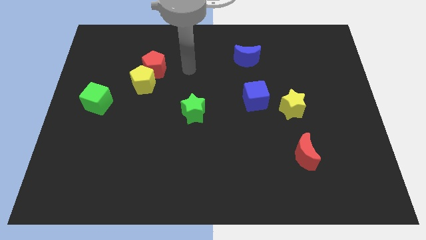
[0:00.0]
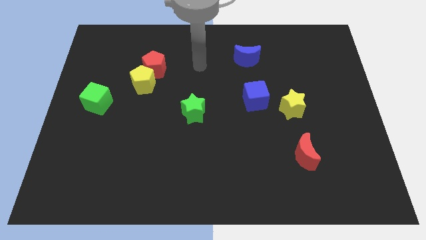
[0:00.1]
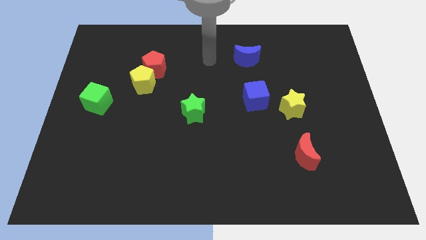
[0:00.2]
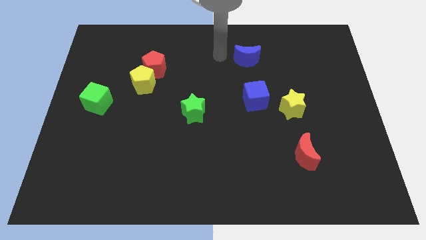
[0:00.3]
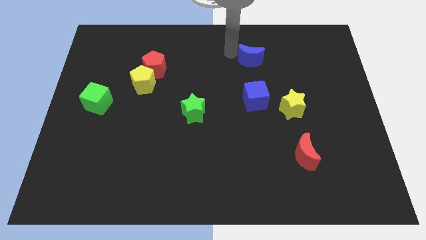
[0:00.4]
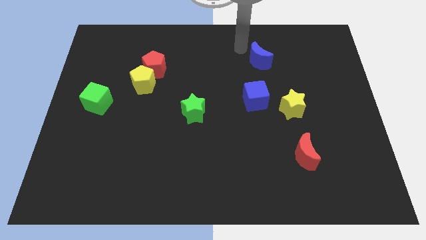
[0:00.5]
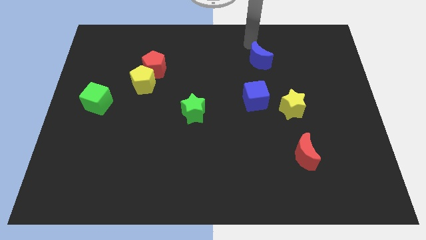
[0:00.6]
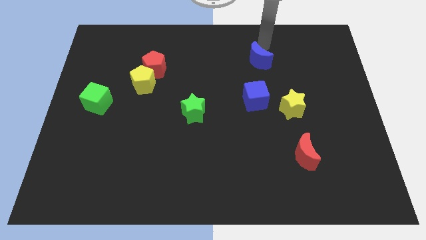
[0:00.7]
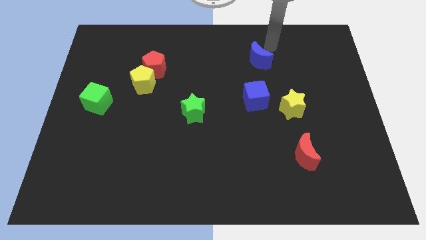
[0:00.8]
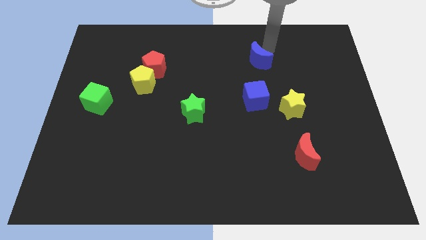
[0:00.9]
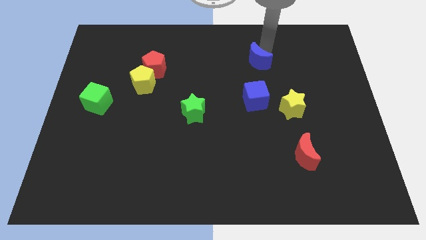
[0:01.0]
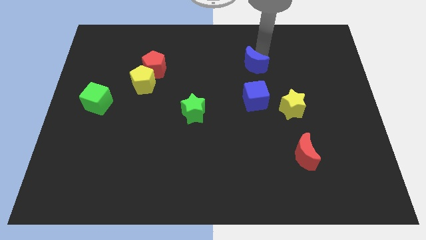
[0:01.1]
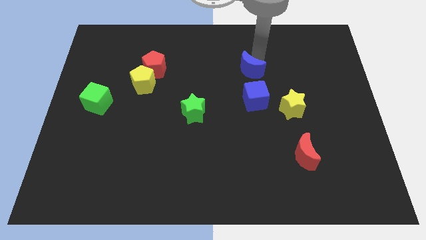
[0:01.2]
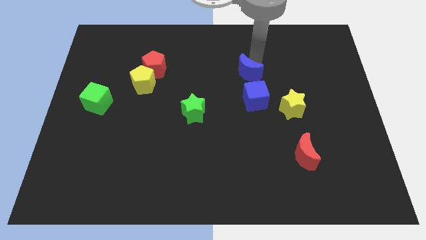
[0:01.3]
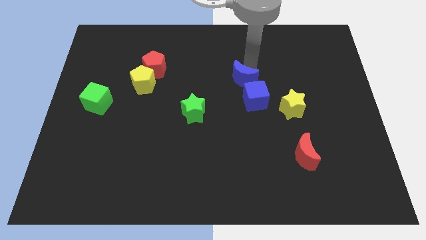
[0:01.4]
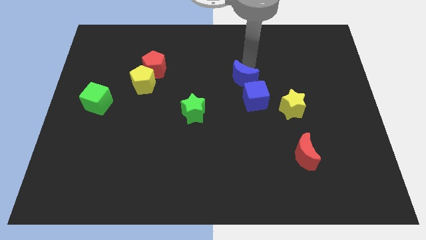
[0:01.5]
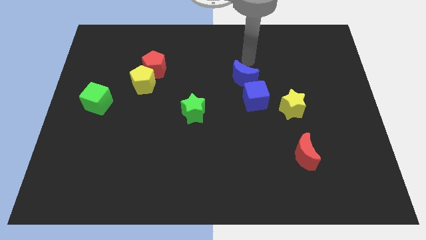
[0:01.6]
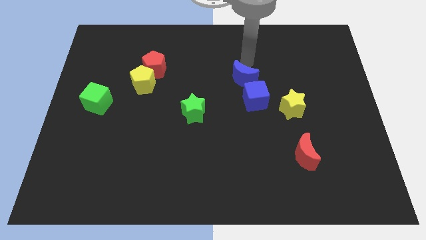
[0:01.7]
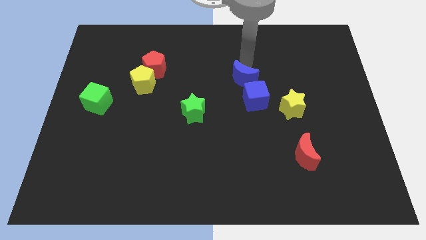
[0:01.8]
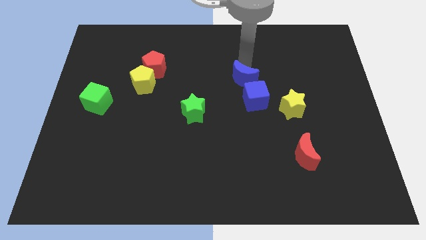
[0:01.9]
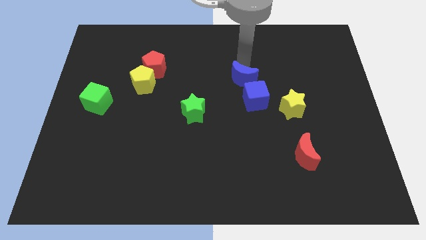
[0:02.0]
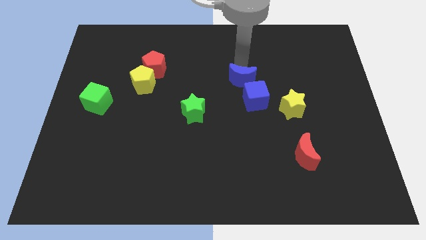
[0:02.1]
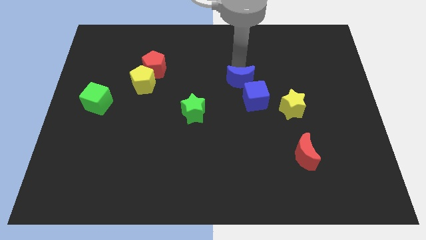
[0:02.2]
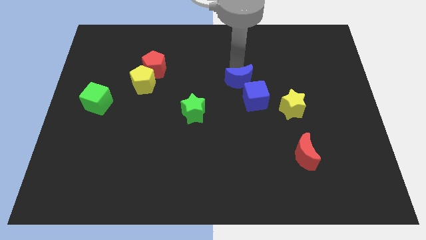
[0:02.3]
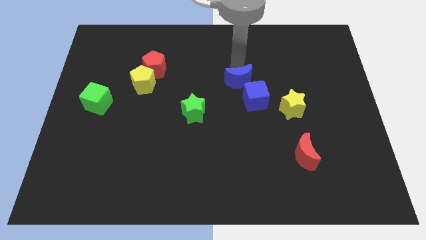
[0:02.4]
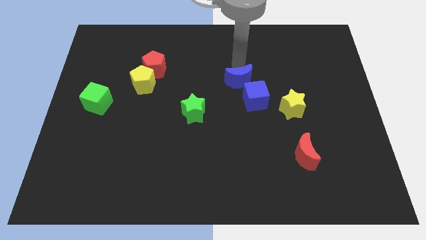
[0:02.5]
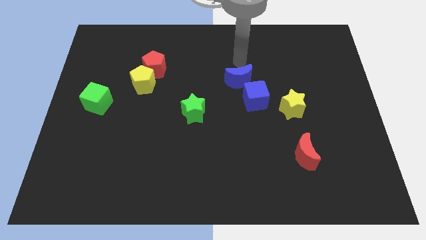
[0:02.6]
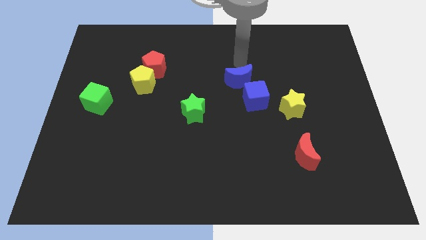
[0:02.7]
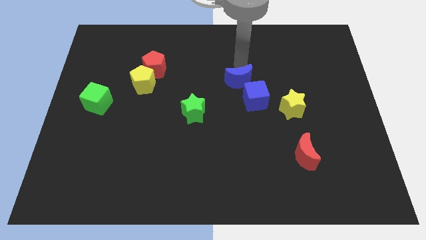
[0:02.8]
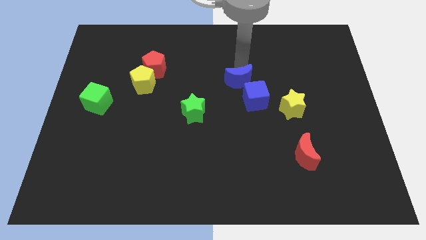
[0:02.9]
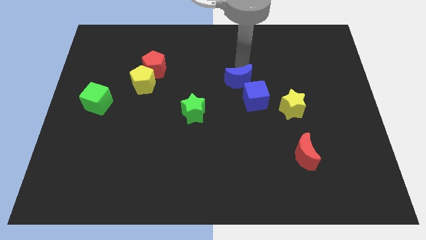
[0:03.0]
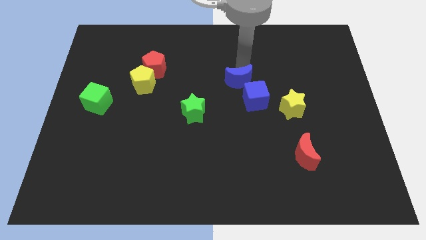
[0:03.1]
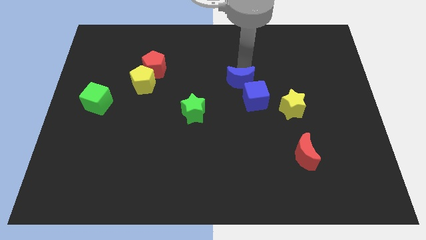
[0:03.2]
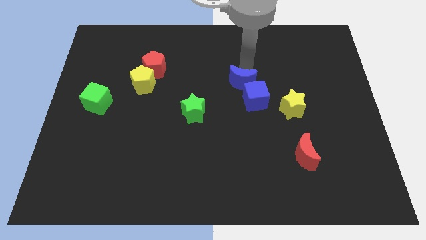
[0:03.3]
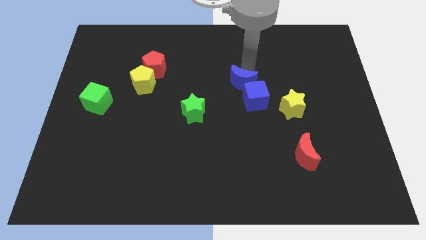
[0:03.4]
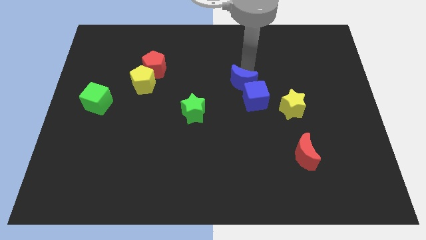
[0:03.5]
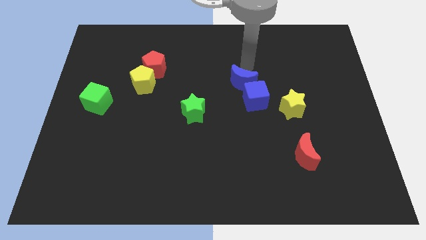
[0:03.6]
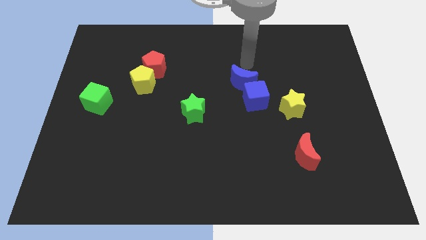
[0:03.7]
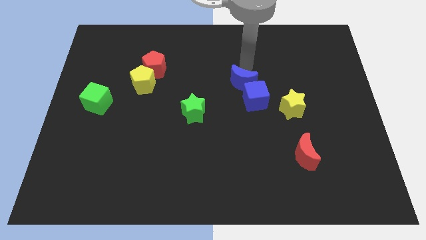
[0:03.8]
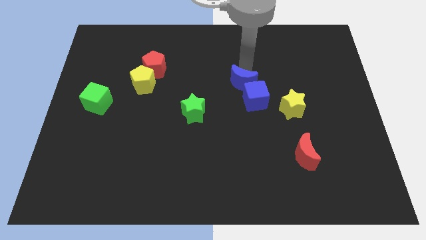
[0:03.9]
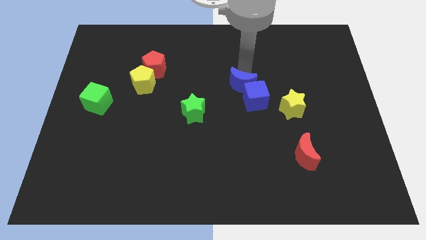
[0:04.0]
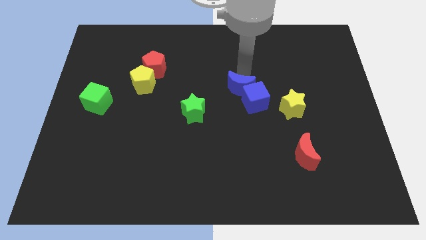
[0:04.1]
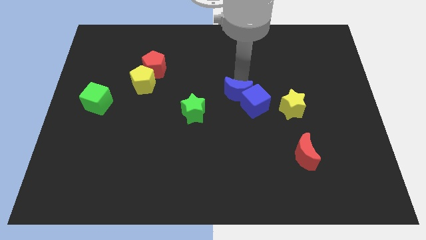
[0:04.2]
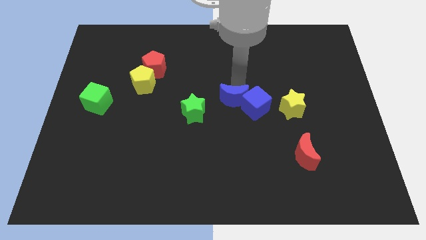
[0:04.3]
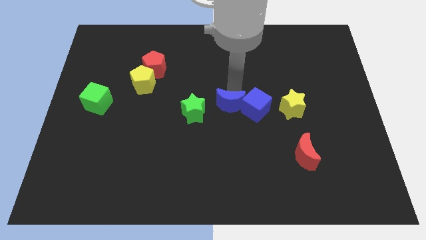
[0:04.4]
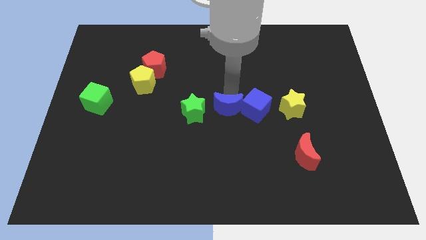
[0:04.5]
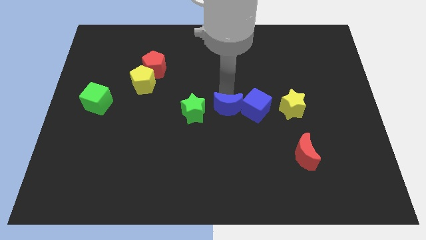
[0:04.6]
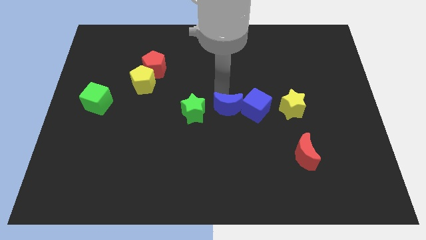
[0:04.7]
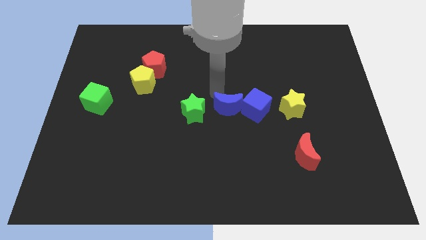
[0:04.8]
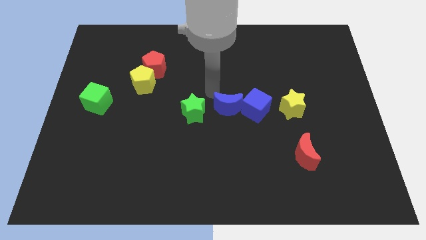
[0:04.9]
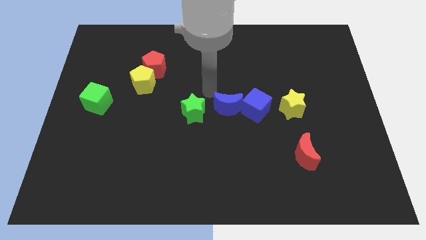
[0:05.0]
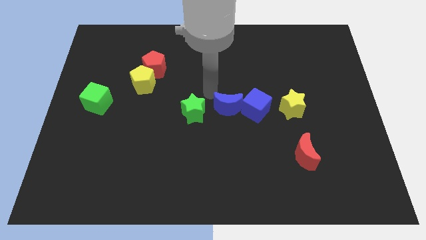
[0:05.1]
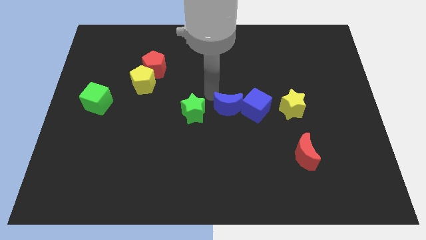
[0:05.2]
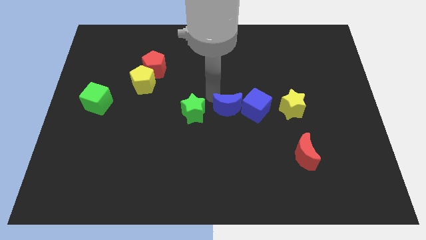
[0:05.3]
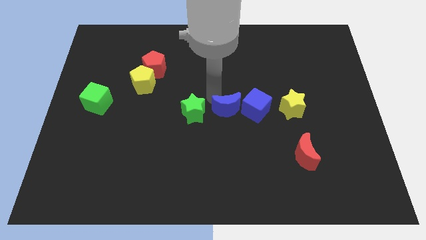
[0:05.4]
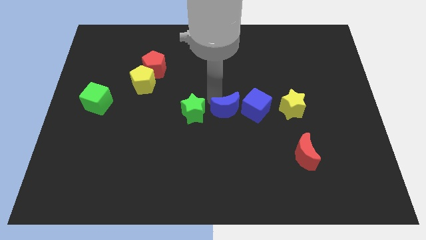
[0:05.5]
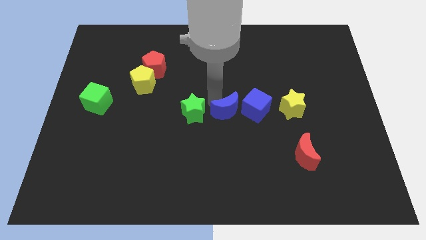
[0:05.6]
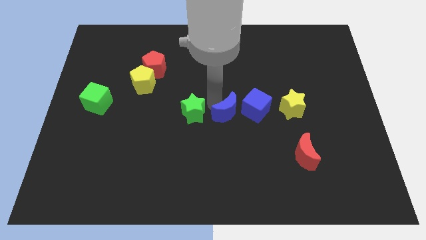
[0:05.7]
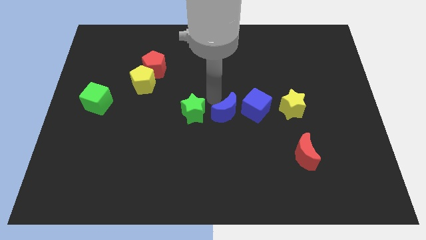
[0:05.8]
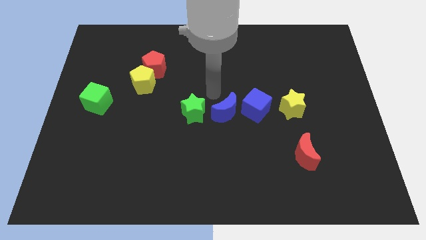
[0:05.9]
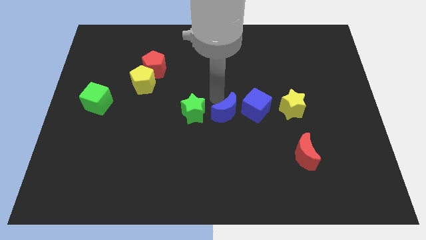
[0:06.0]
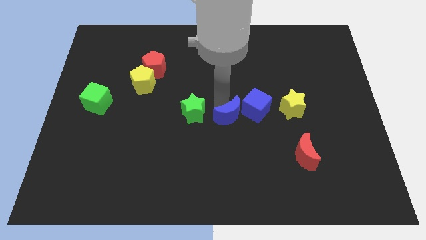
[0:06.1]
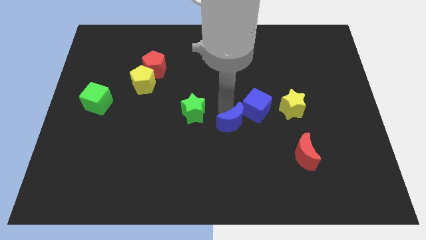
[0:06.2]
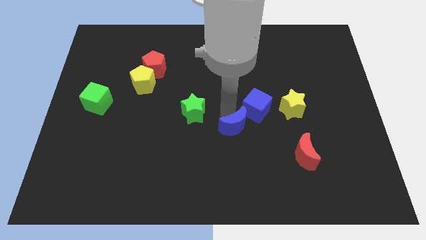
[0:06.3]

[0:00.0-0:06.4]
move the blue moon down

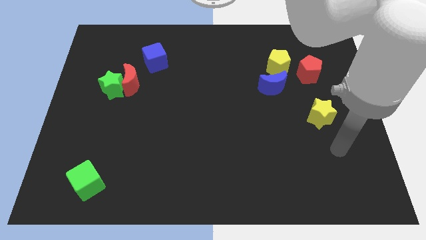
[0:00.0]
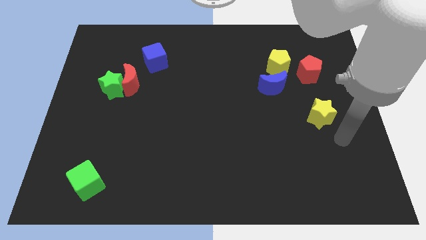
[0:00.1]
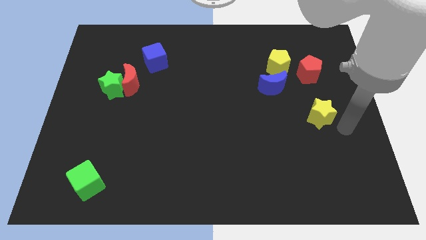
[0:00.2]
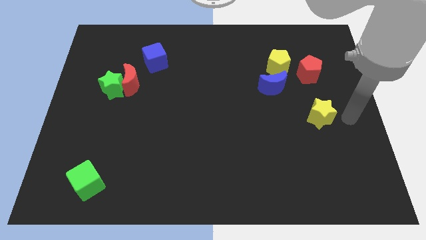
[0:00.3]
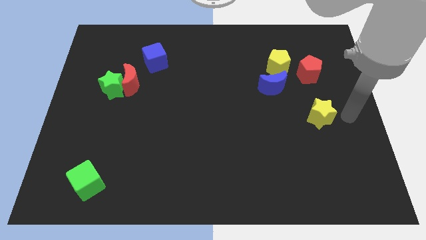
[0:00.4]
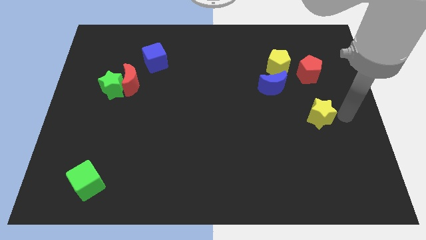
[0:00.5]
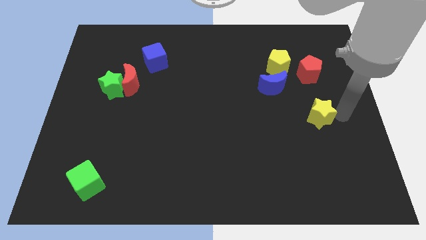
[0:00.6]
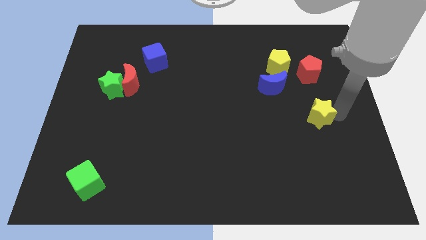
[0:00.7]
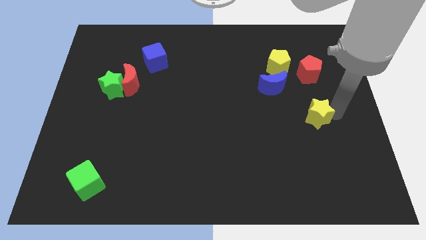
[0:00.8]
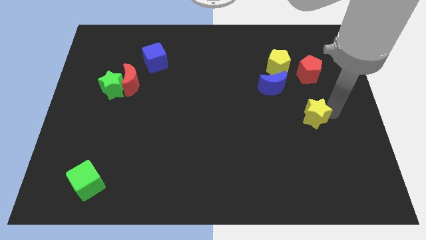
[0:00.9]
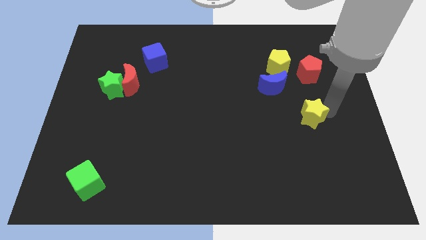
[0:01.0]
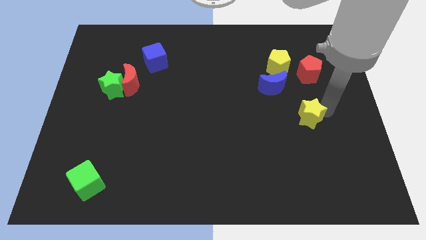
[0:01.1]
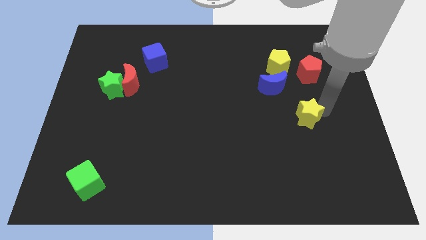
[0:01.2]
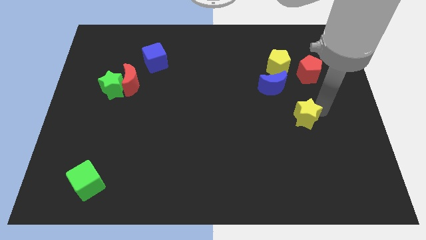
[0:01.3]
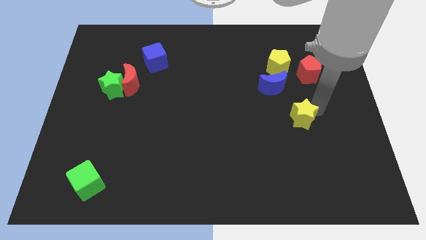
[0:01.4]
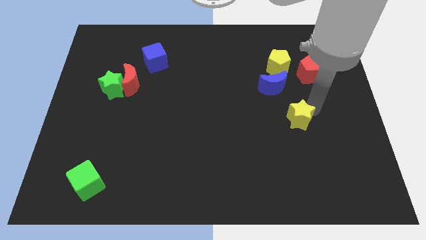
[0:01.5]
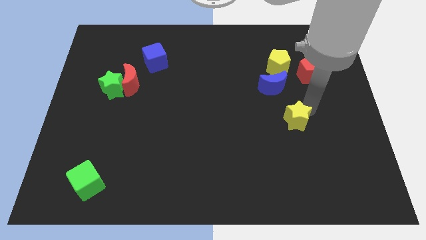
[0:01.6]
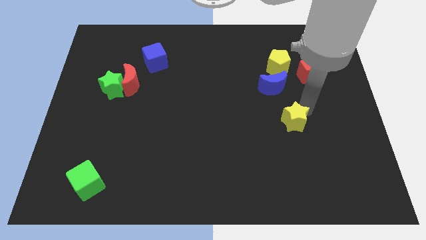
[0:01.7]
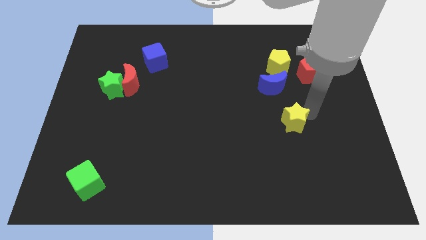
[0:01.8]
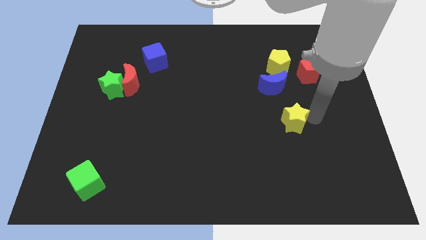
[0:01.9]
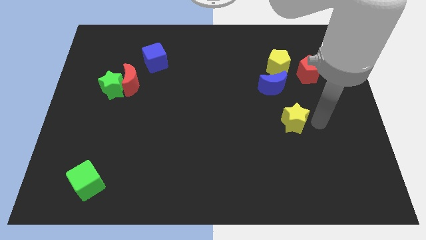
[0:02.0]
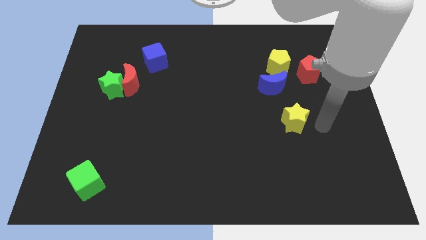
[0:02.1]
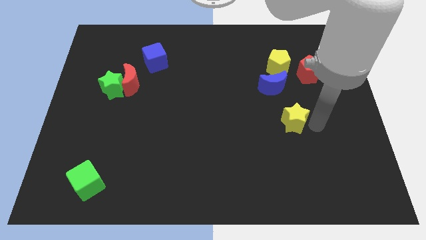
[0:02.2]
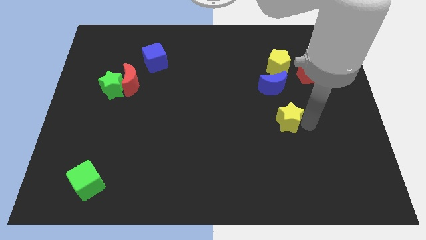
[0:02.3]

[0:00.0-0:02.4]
slightly push the yellow star to the left
